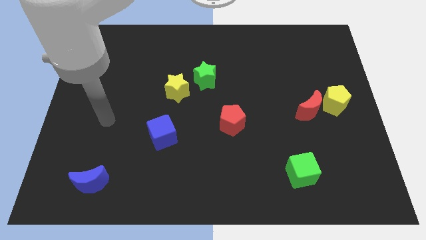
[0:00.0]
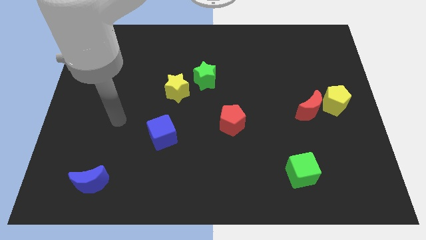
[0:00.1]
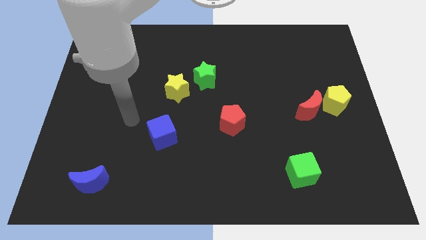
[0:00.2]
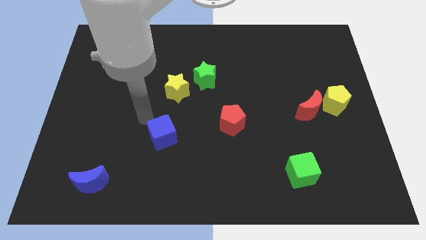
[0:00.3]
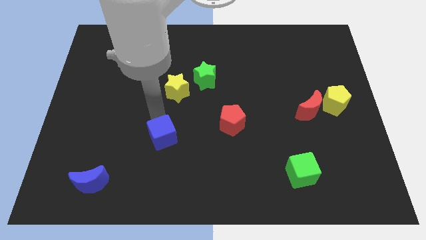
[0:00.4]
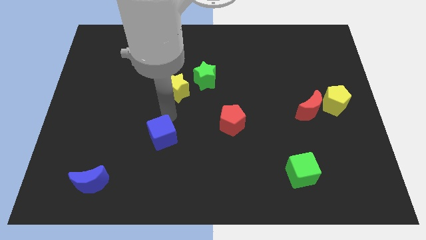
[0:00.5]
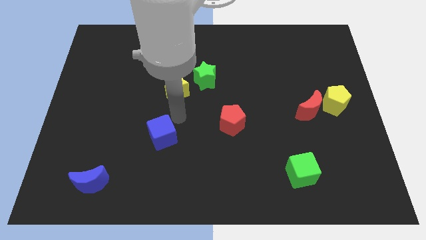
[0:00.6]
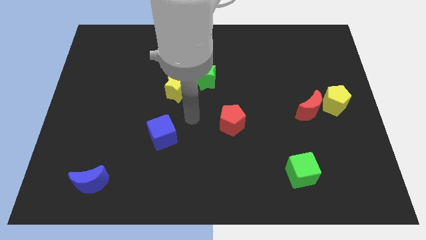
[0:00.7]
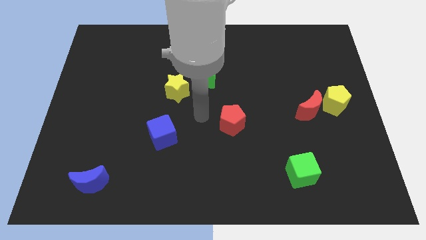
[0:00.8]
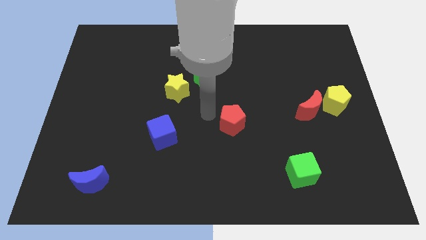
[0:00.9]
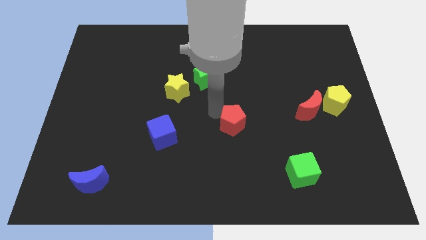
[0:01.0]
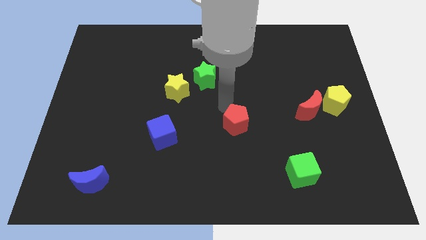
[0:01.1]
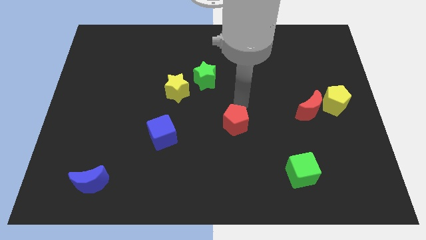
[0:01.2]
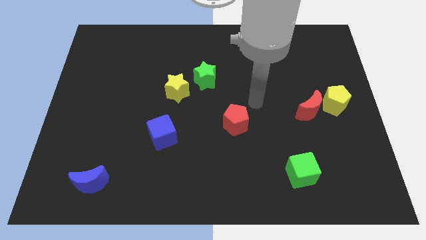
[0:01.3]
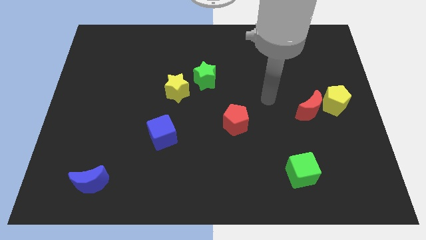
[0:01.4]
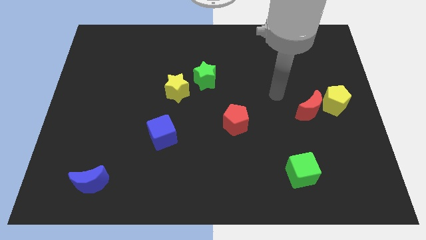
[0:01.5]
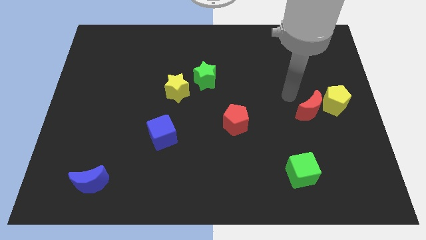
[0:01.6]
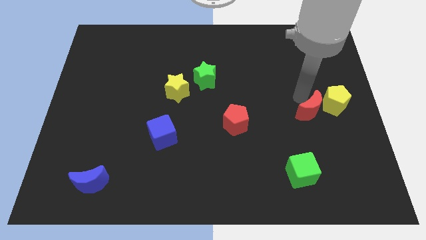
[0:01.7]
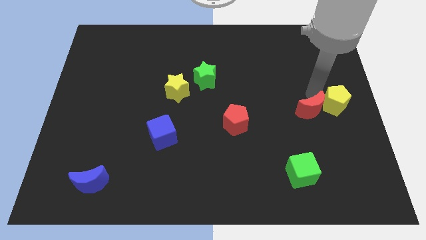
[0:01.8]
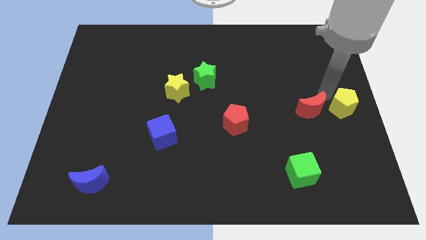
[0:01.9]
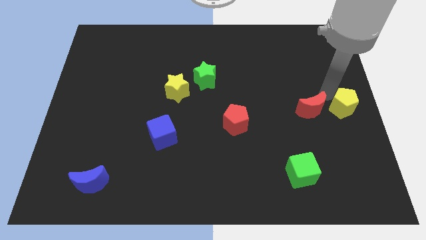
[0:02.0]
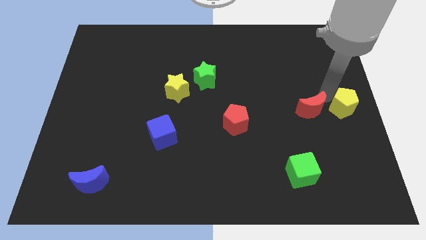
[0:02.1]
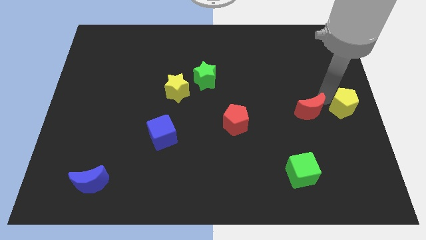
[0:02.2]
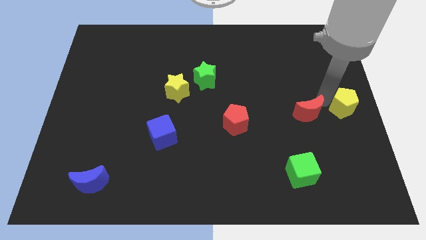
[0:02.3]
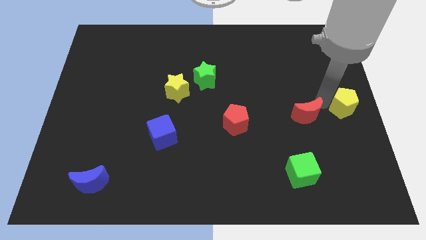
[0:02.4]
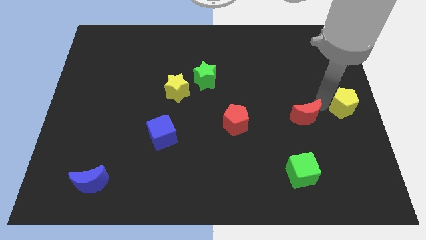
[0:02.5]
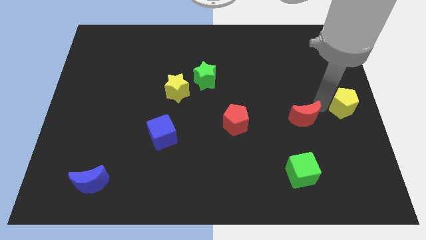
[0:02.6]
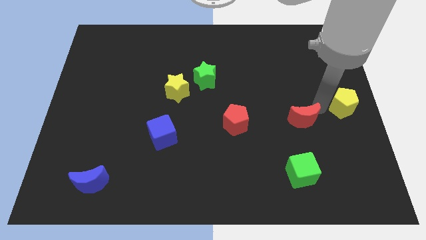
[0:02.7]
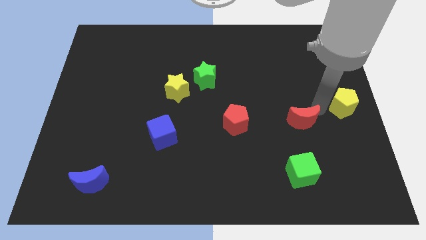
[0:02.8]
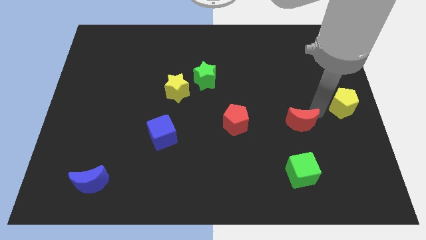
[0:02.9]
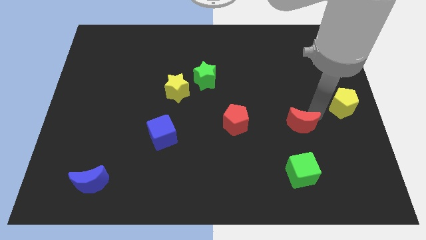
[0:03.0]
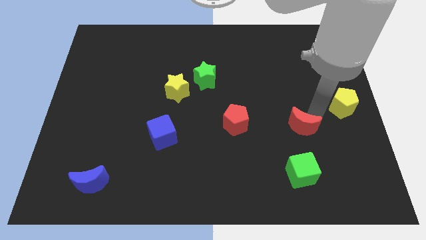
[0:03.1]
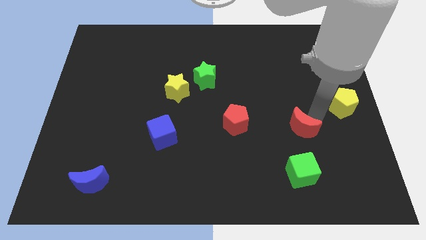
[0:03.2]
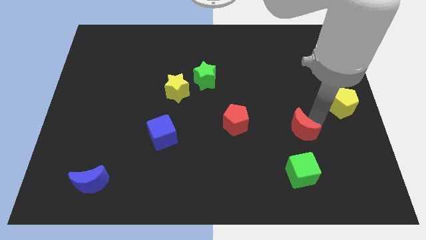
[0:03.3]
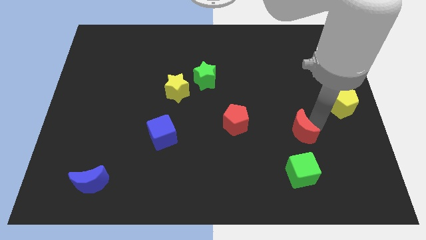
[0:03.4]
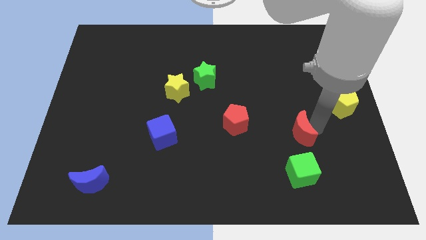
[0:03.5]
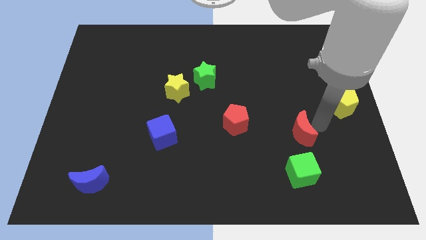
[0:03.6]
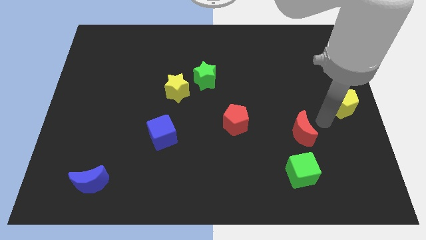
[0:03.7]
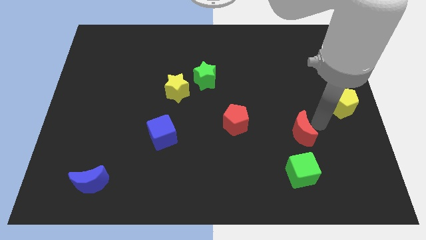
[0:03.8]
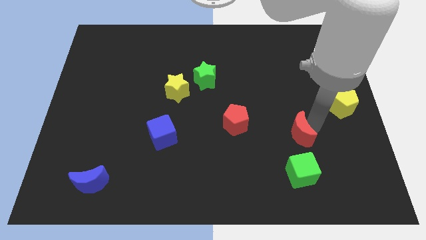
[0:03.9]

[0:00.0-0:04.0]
move the red moon a little bit down and then to the left

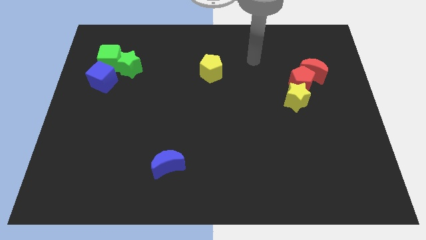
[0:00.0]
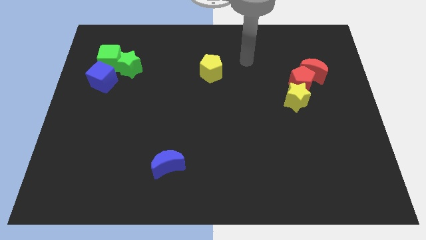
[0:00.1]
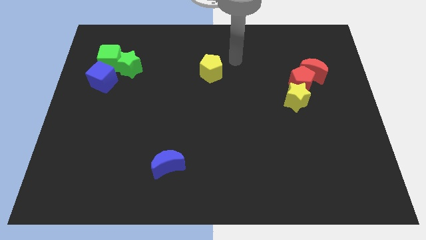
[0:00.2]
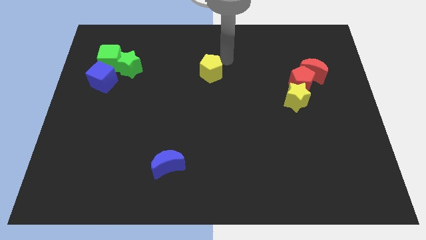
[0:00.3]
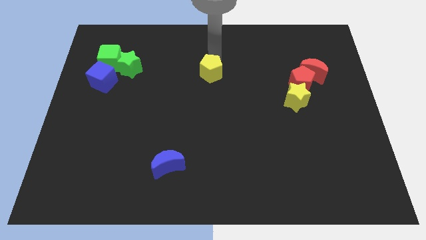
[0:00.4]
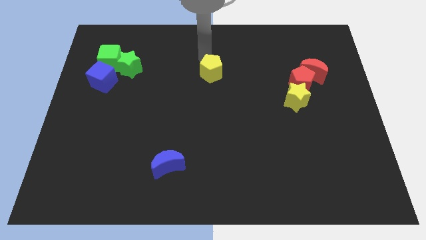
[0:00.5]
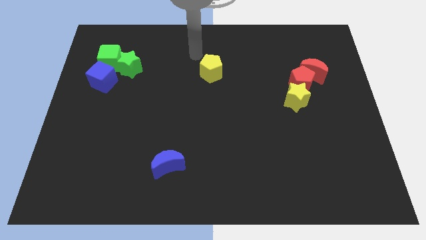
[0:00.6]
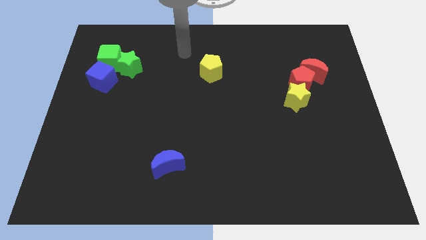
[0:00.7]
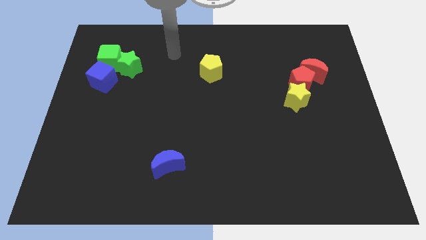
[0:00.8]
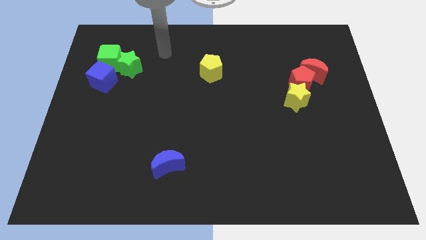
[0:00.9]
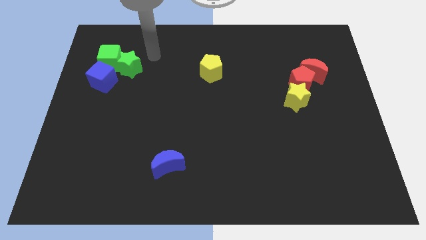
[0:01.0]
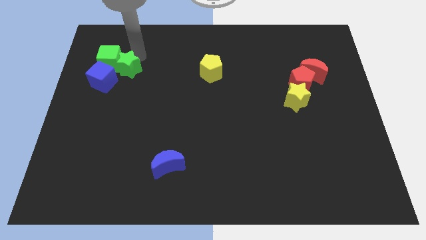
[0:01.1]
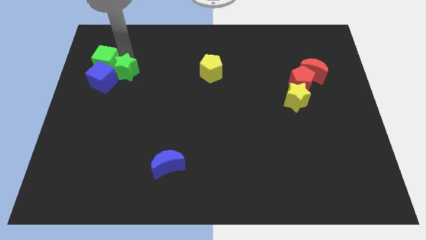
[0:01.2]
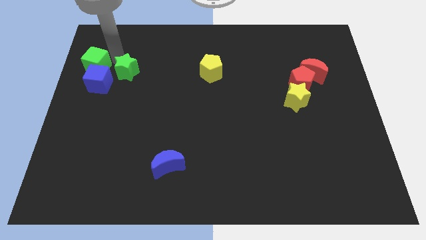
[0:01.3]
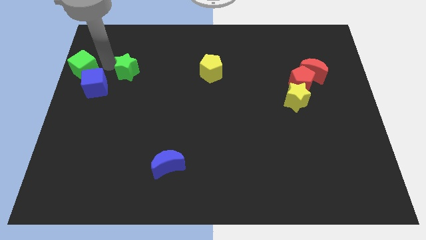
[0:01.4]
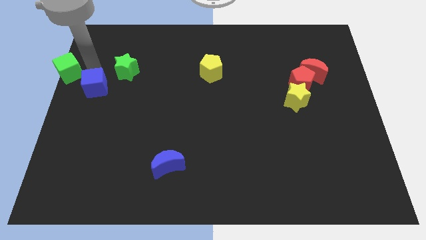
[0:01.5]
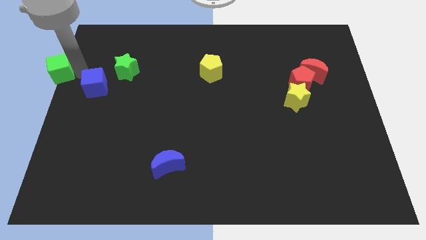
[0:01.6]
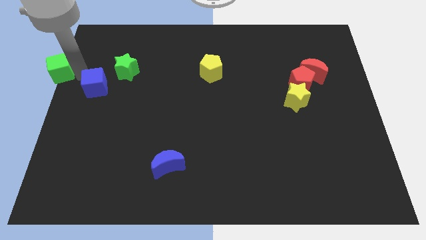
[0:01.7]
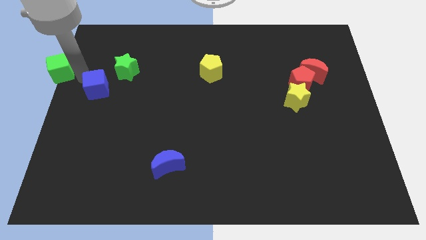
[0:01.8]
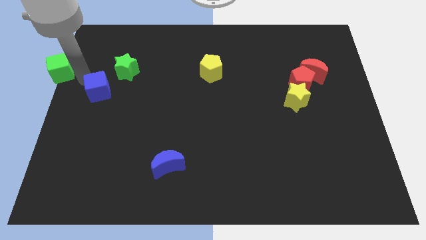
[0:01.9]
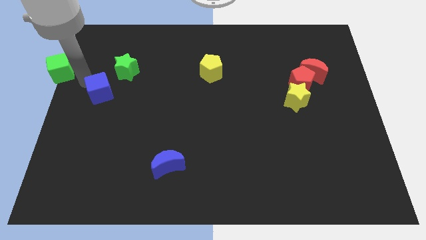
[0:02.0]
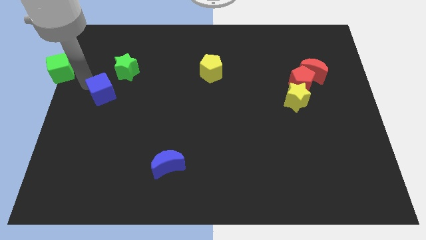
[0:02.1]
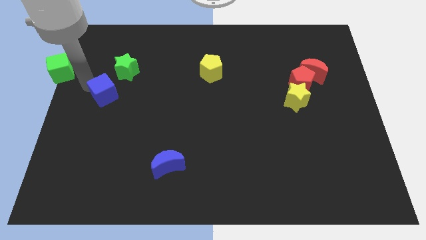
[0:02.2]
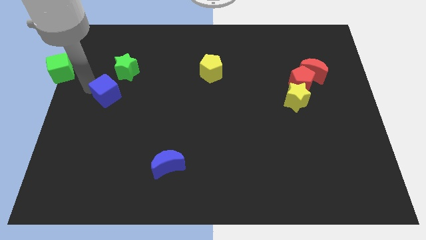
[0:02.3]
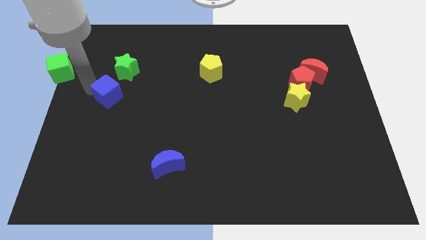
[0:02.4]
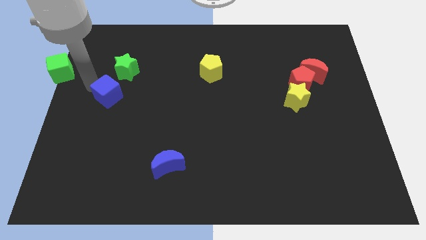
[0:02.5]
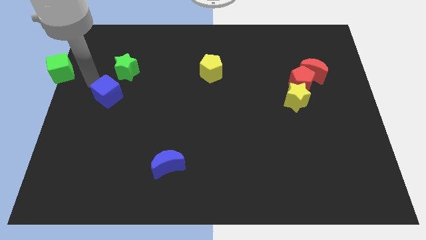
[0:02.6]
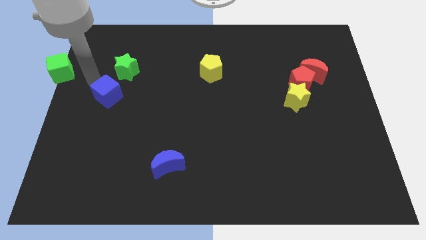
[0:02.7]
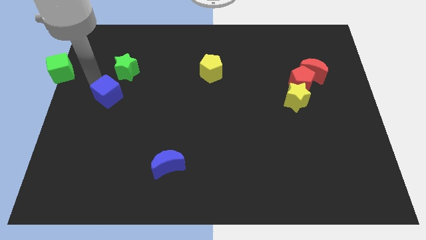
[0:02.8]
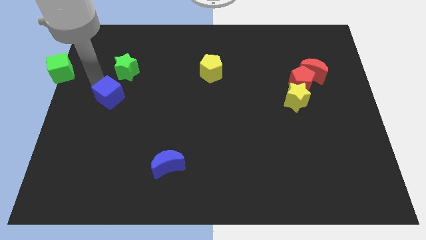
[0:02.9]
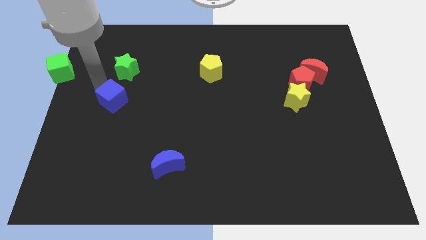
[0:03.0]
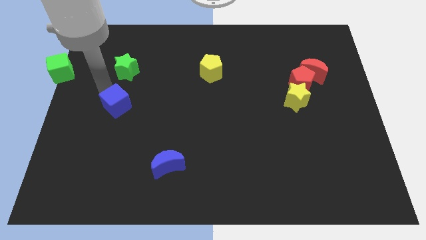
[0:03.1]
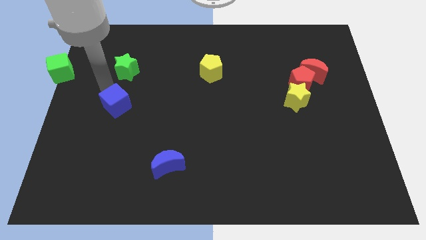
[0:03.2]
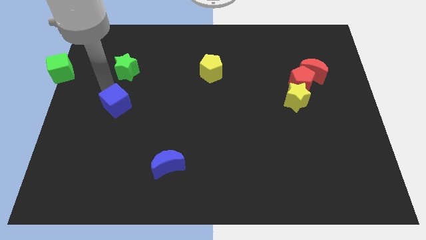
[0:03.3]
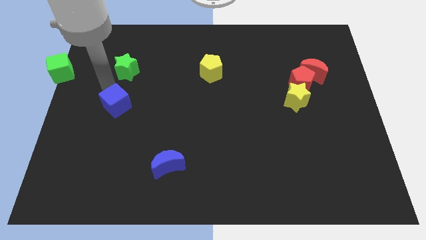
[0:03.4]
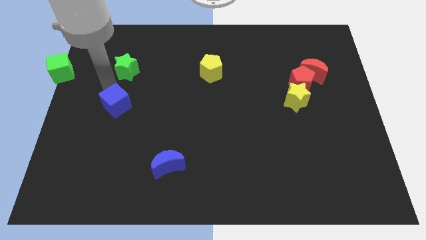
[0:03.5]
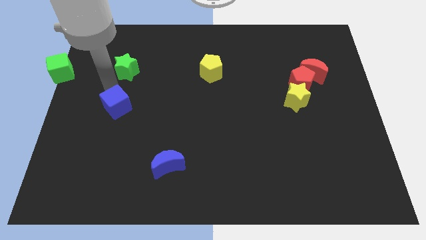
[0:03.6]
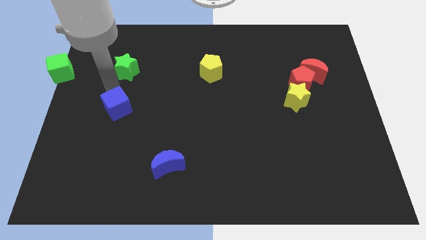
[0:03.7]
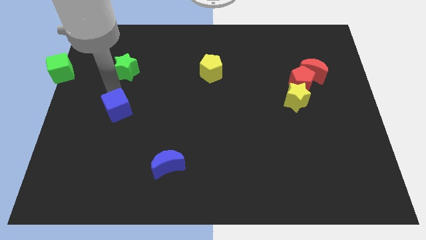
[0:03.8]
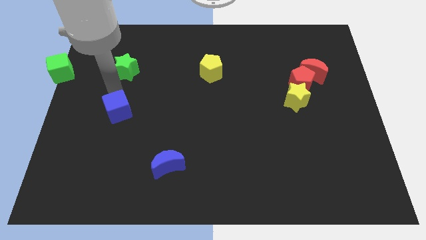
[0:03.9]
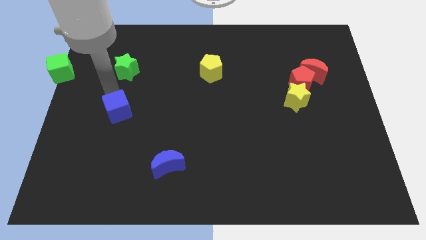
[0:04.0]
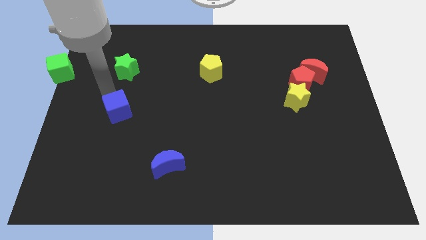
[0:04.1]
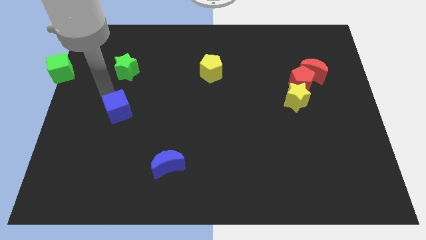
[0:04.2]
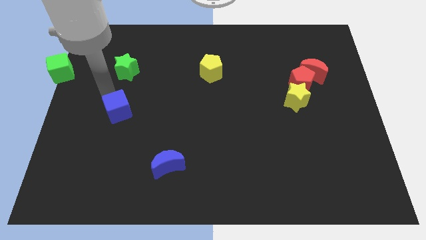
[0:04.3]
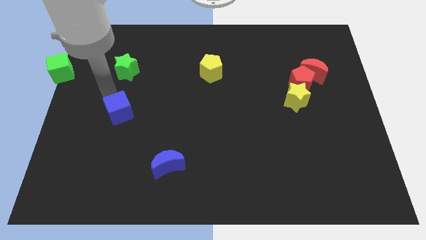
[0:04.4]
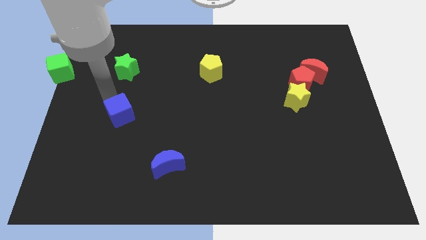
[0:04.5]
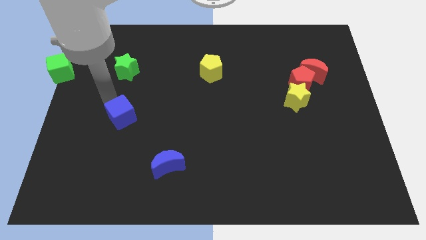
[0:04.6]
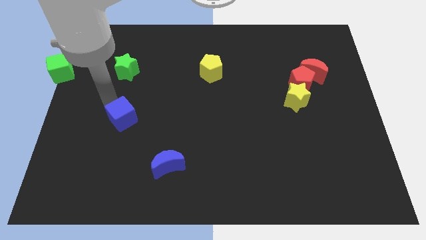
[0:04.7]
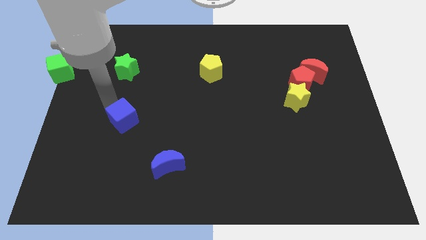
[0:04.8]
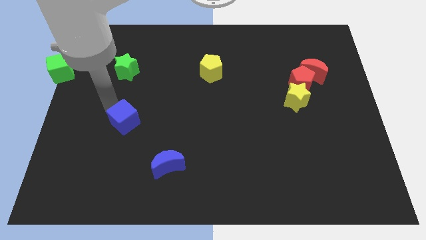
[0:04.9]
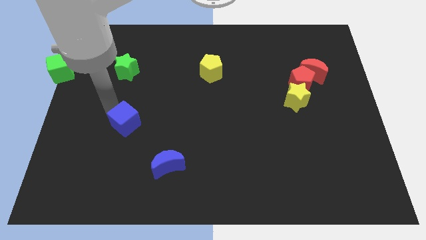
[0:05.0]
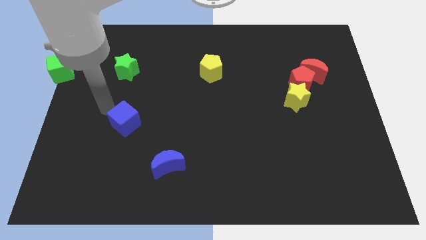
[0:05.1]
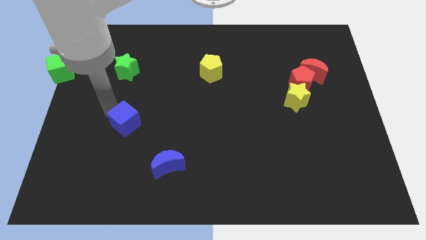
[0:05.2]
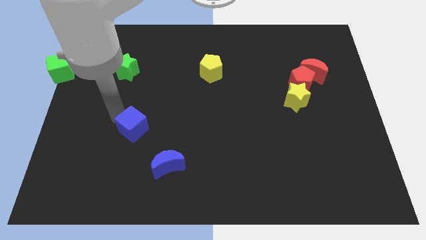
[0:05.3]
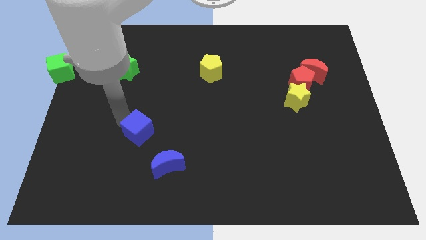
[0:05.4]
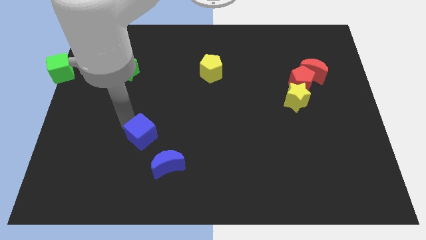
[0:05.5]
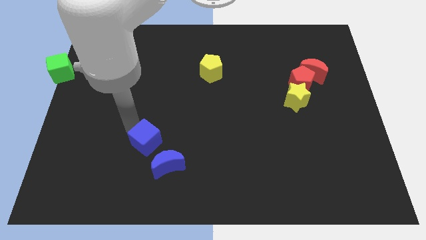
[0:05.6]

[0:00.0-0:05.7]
slide the blue cube down and to the right diagonally
